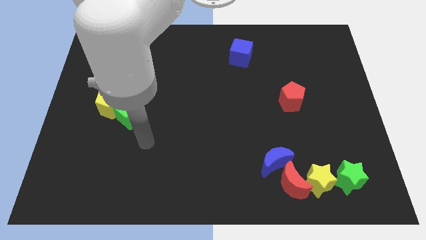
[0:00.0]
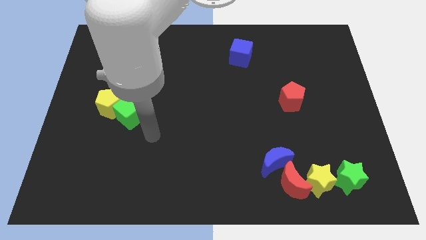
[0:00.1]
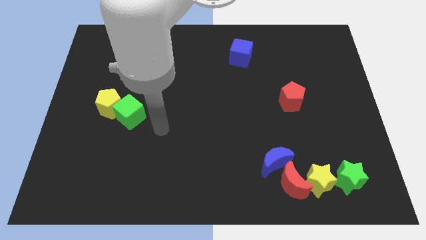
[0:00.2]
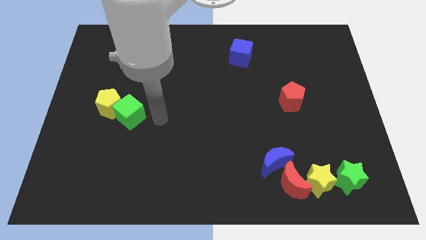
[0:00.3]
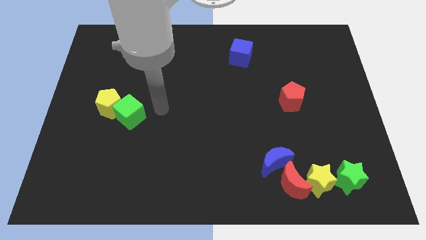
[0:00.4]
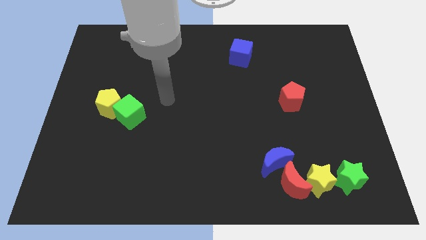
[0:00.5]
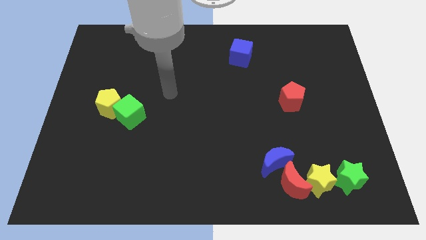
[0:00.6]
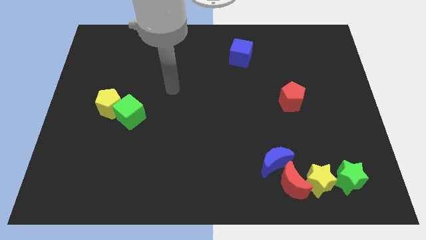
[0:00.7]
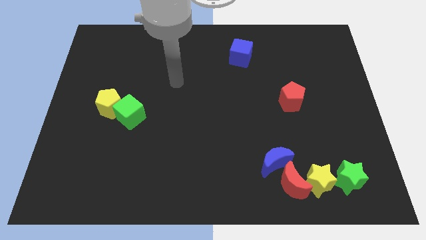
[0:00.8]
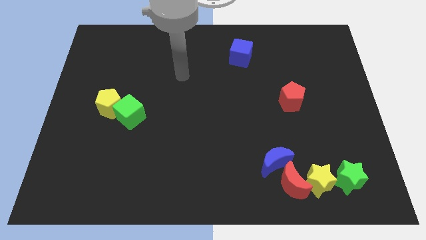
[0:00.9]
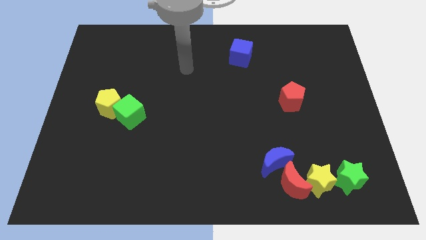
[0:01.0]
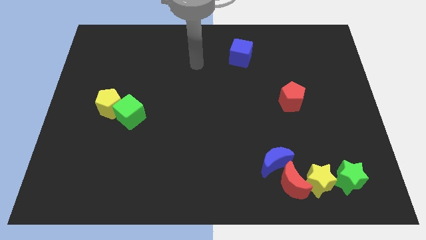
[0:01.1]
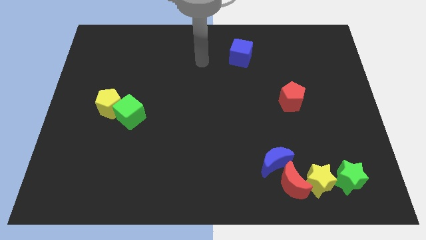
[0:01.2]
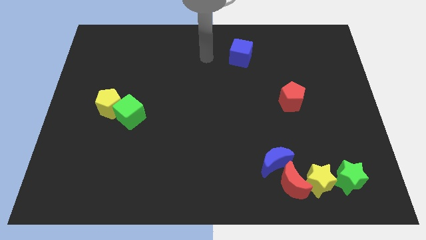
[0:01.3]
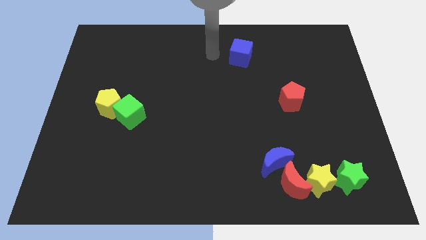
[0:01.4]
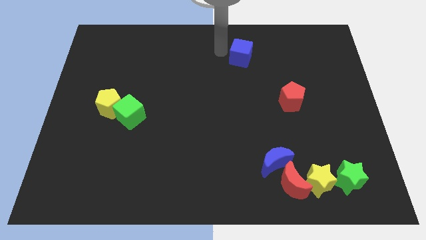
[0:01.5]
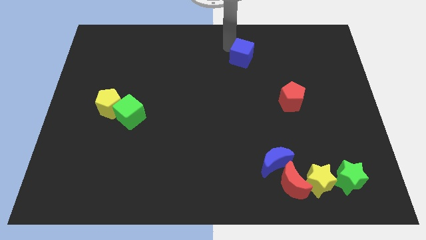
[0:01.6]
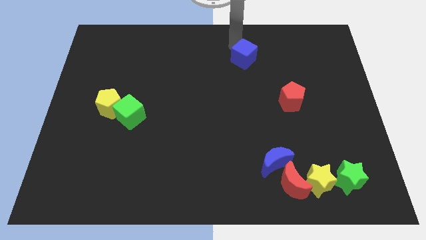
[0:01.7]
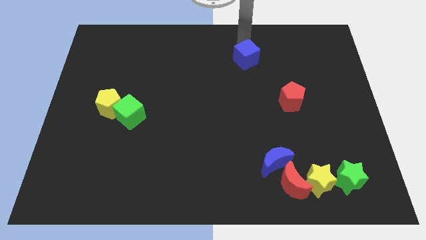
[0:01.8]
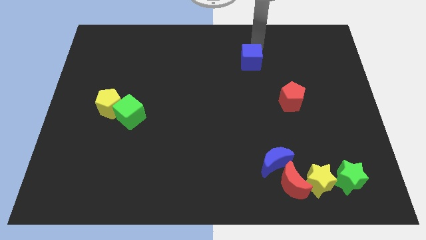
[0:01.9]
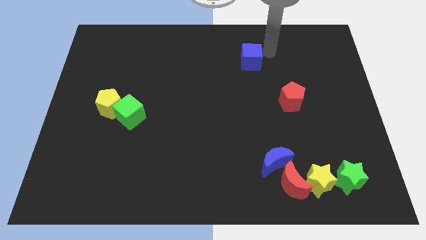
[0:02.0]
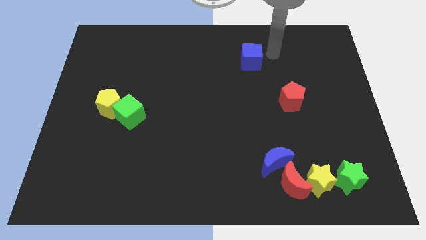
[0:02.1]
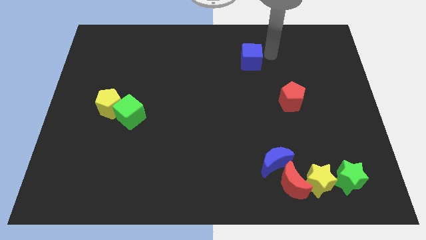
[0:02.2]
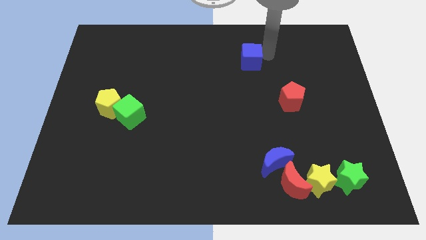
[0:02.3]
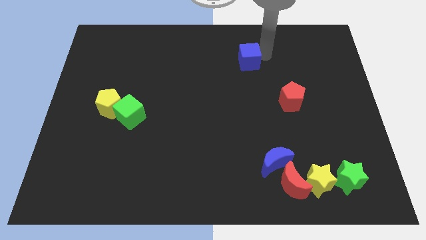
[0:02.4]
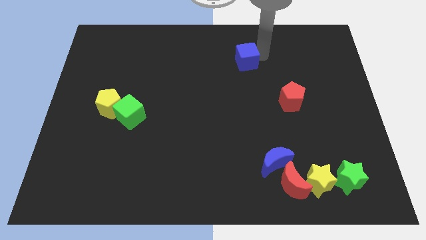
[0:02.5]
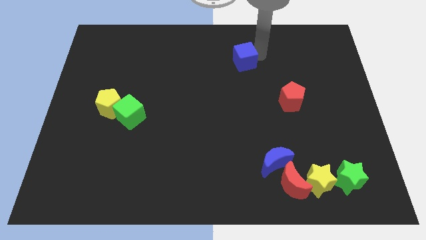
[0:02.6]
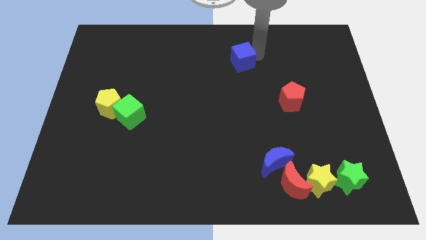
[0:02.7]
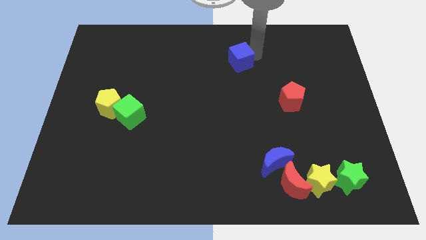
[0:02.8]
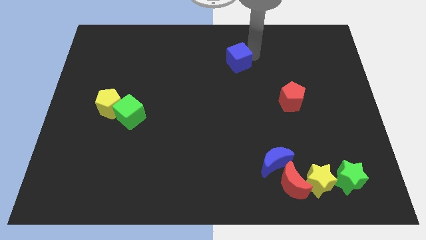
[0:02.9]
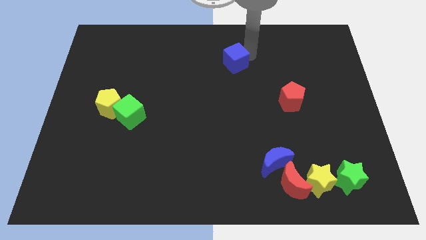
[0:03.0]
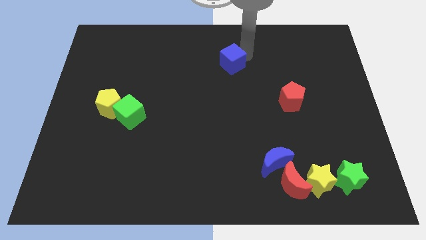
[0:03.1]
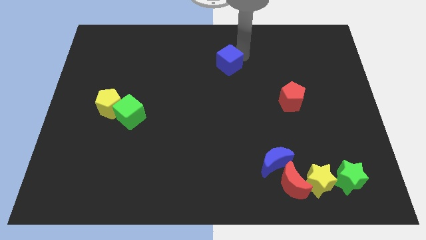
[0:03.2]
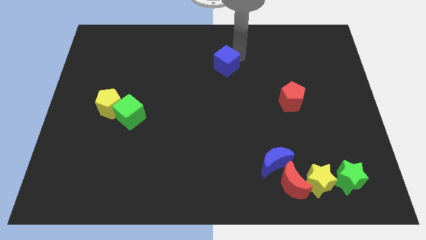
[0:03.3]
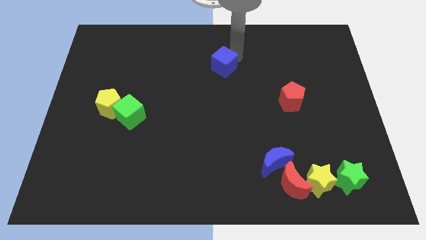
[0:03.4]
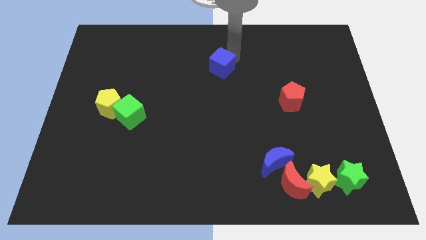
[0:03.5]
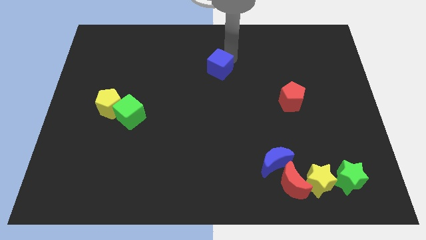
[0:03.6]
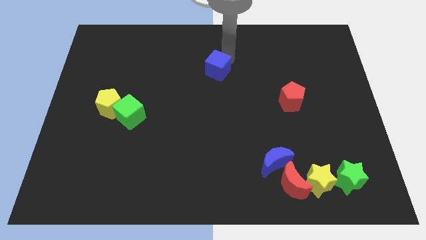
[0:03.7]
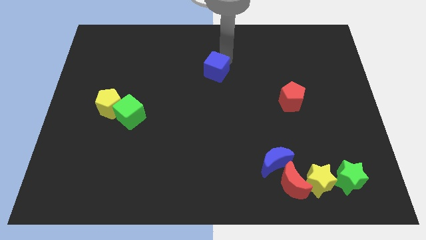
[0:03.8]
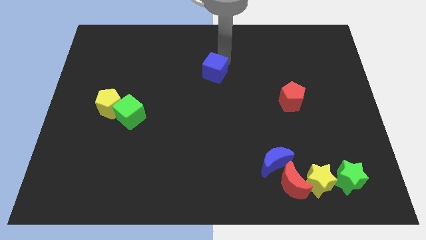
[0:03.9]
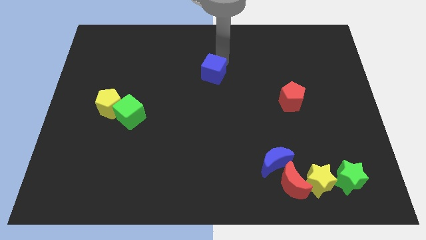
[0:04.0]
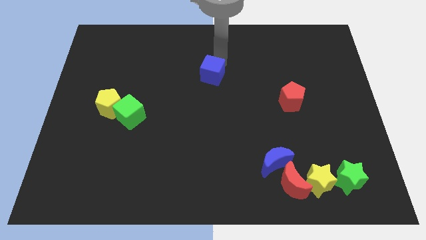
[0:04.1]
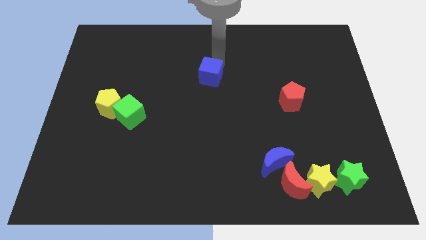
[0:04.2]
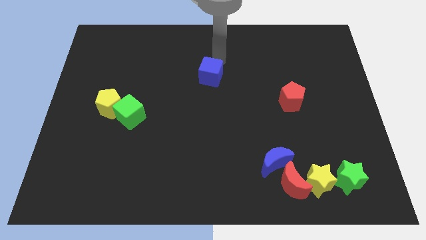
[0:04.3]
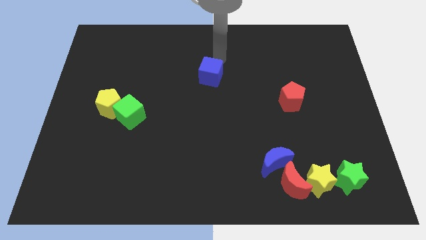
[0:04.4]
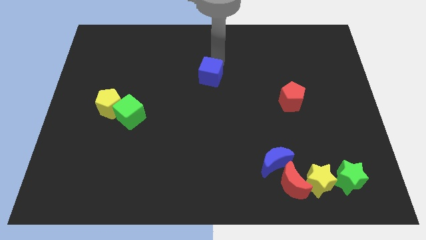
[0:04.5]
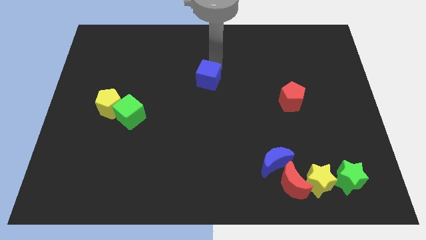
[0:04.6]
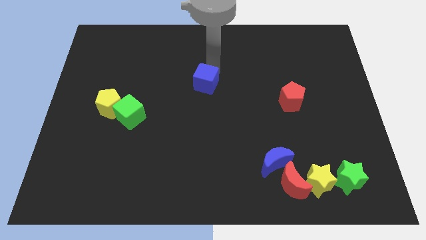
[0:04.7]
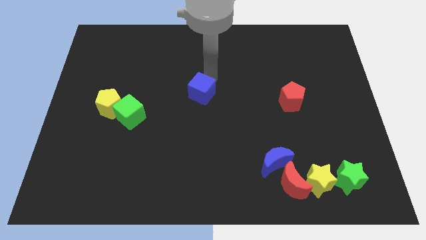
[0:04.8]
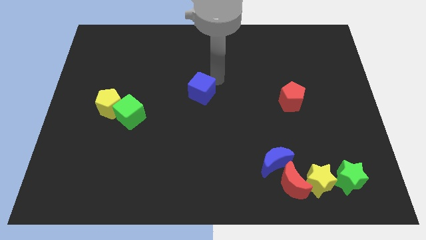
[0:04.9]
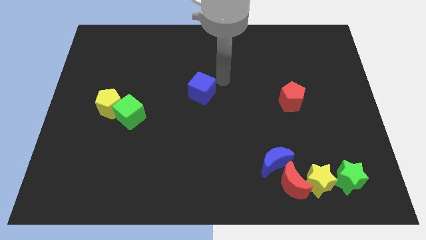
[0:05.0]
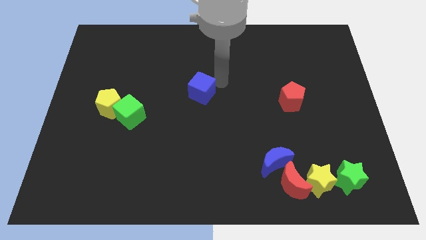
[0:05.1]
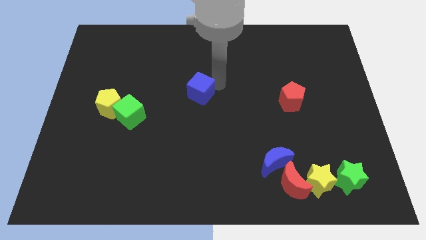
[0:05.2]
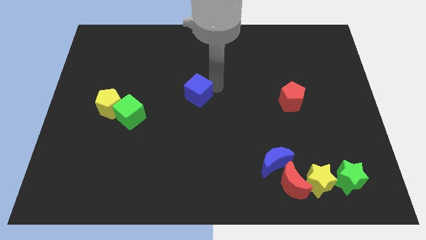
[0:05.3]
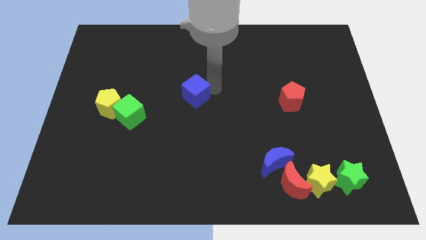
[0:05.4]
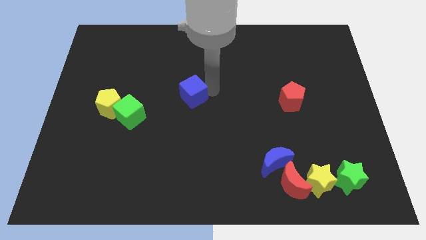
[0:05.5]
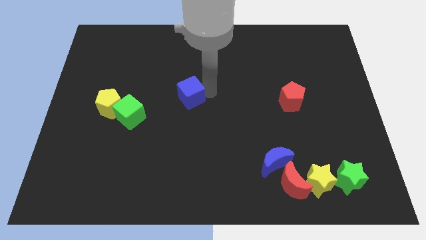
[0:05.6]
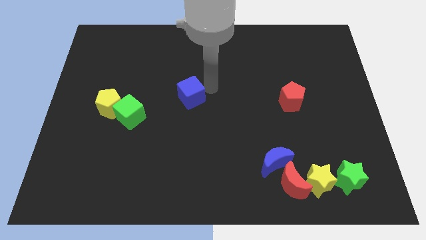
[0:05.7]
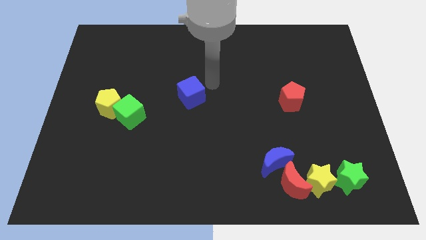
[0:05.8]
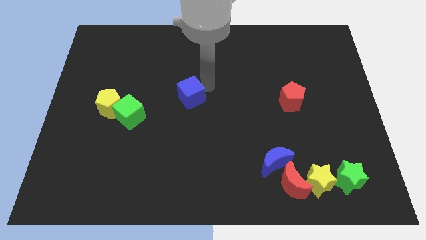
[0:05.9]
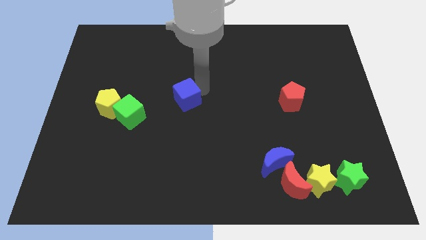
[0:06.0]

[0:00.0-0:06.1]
move the blue cube downwards and left

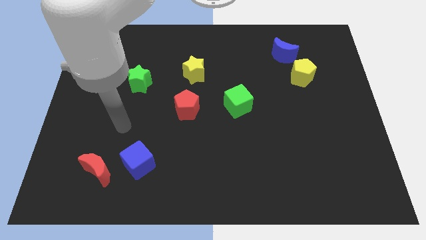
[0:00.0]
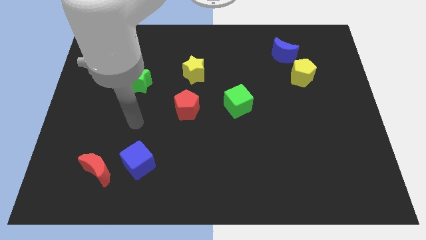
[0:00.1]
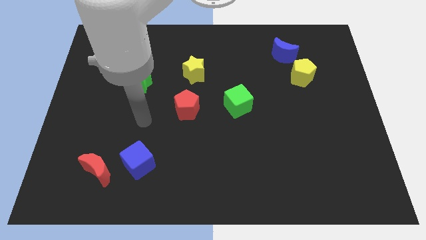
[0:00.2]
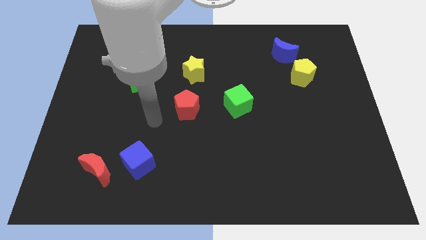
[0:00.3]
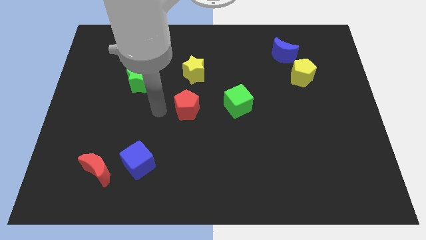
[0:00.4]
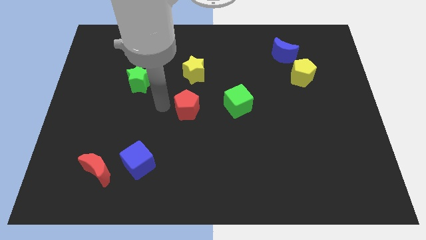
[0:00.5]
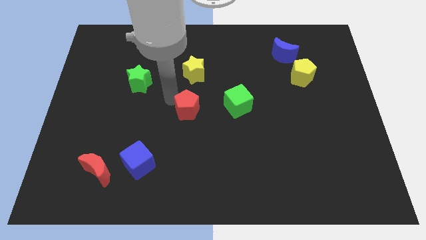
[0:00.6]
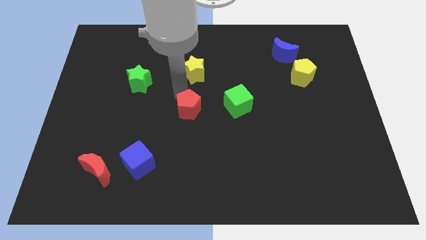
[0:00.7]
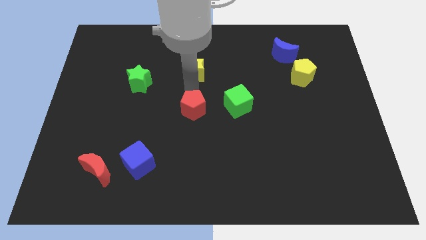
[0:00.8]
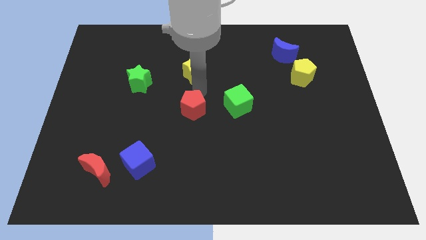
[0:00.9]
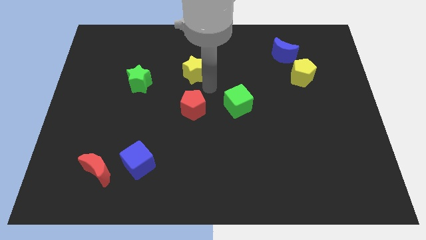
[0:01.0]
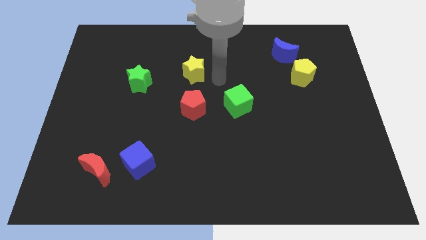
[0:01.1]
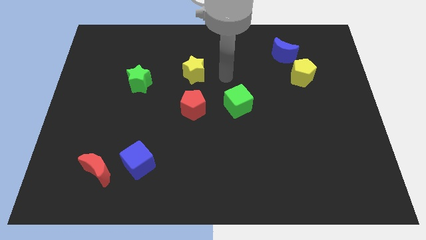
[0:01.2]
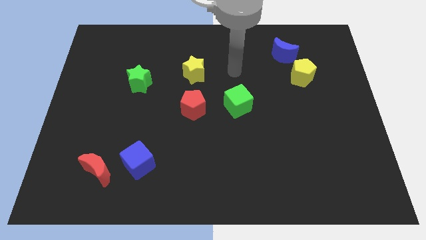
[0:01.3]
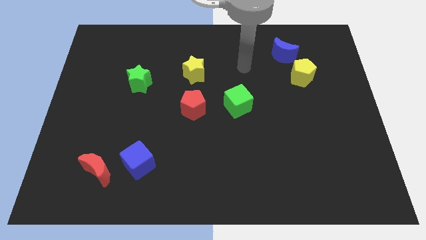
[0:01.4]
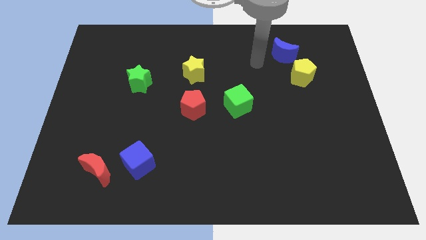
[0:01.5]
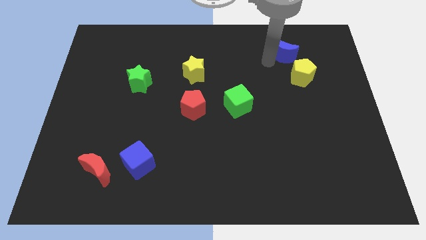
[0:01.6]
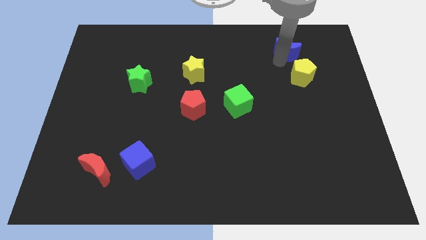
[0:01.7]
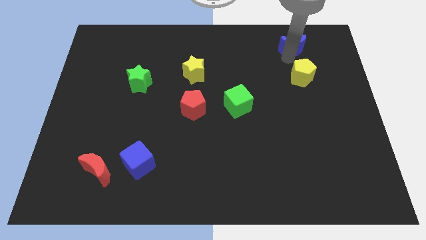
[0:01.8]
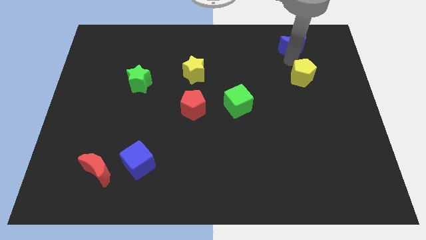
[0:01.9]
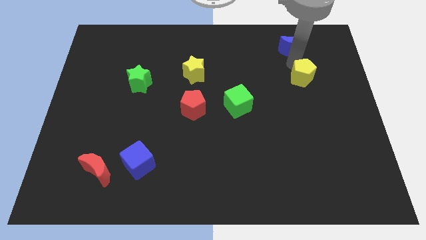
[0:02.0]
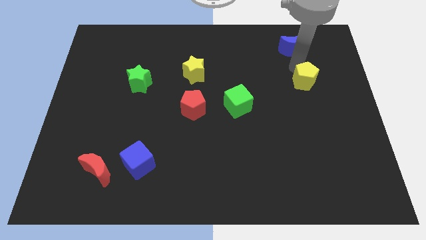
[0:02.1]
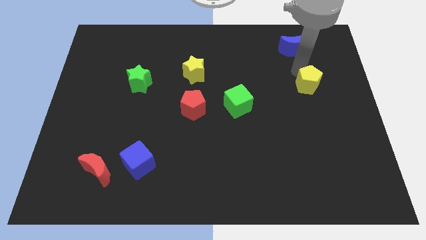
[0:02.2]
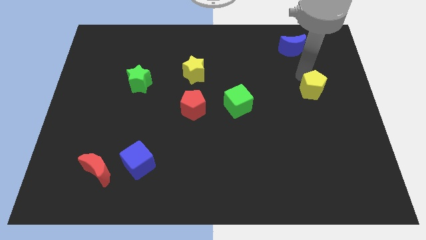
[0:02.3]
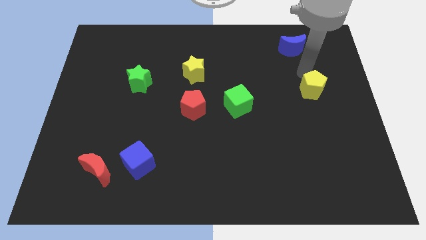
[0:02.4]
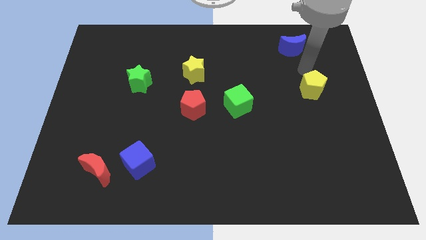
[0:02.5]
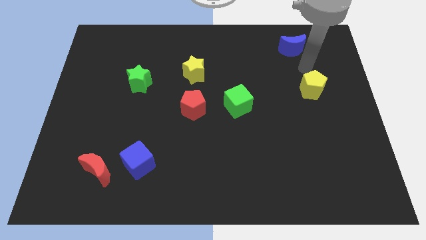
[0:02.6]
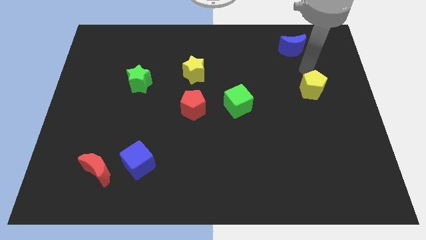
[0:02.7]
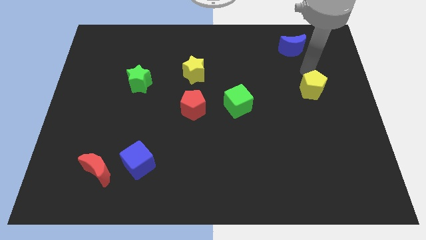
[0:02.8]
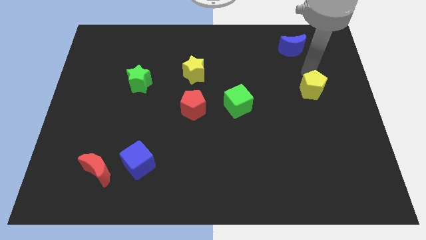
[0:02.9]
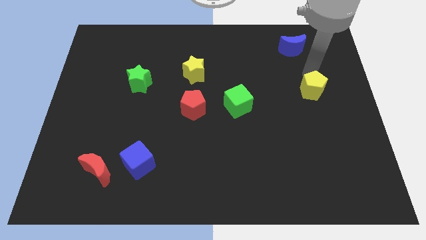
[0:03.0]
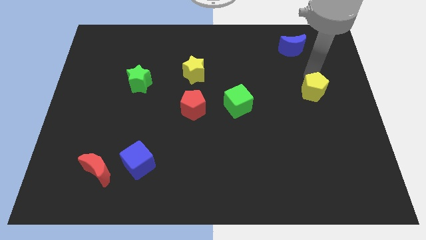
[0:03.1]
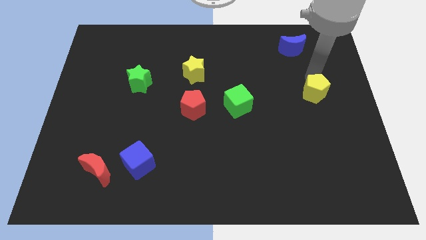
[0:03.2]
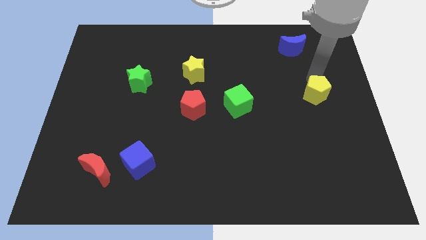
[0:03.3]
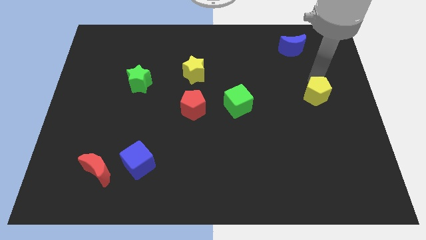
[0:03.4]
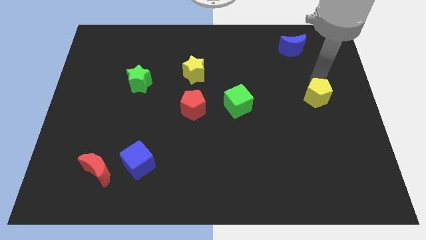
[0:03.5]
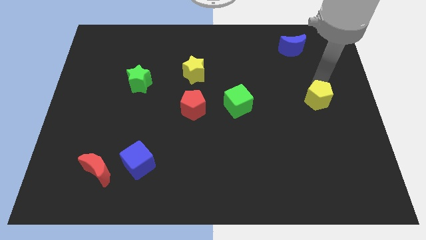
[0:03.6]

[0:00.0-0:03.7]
push the yellow pentagon downwards a little bit
